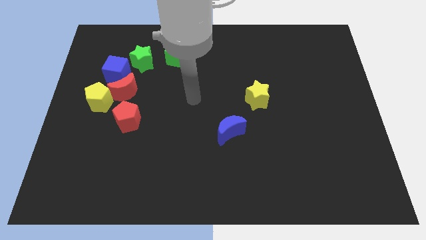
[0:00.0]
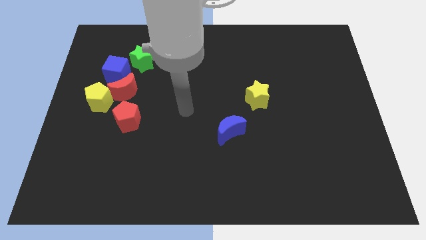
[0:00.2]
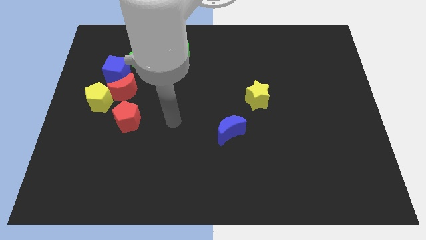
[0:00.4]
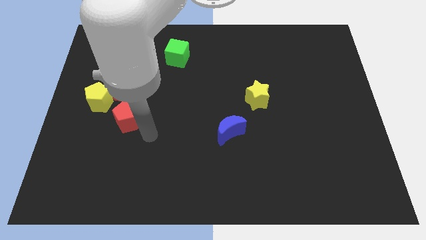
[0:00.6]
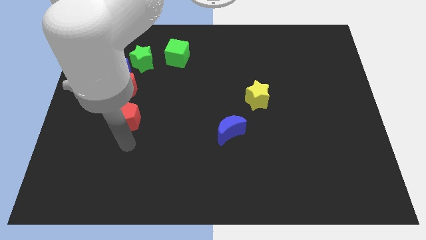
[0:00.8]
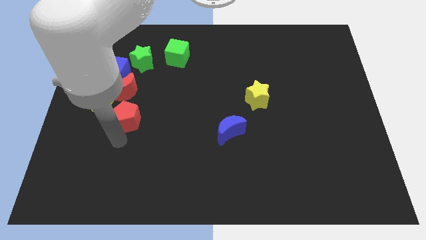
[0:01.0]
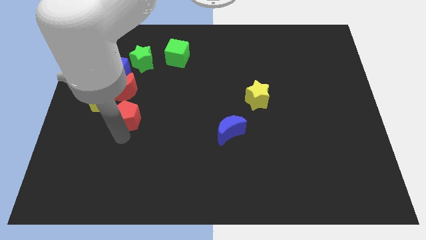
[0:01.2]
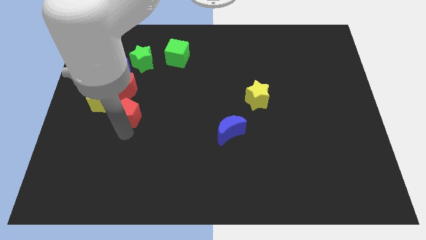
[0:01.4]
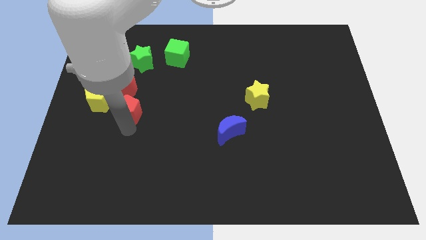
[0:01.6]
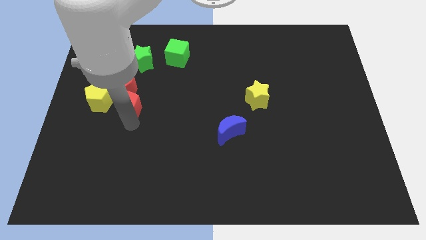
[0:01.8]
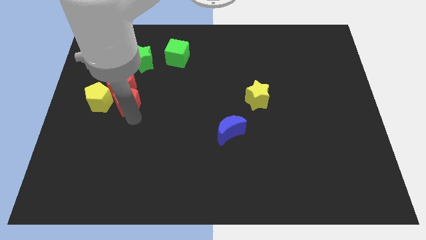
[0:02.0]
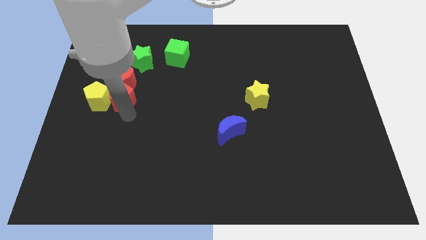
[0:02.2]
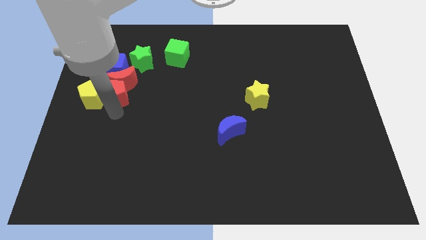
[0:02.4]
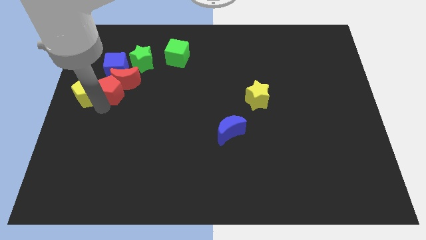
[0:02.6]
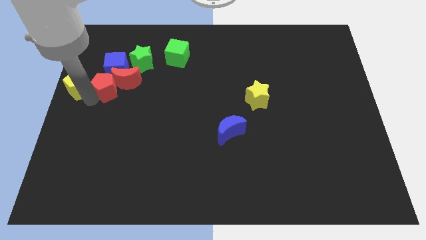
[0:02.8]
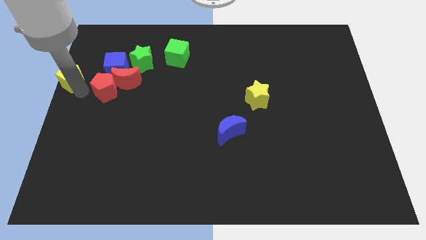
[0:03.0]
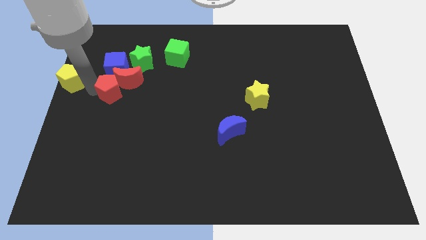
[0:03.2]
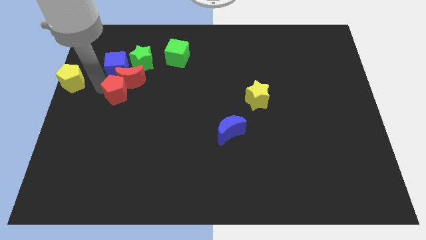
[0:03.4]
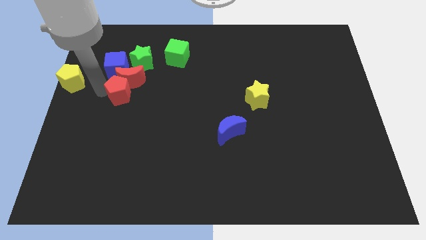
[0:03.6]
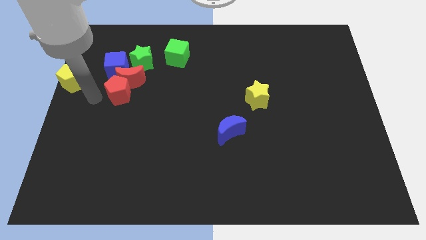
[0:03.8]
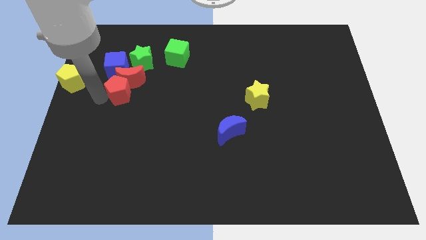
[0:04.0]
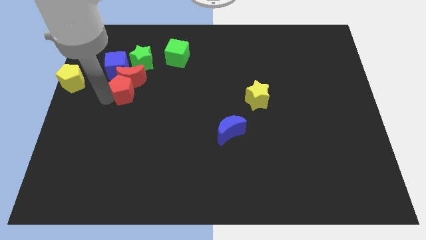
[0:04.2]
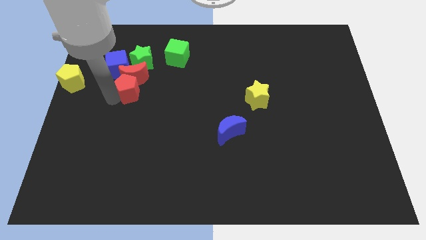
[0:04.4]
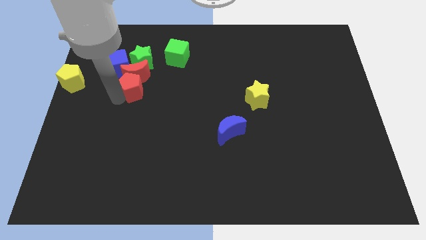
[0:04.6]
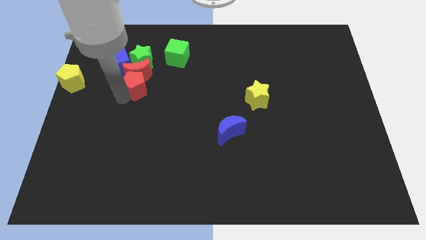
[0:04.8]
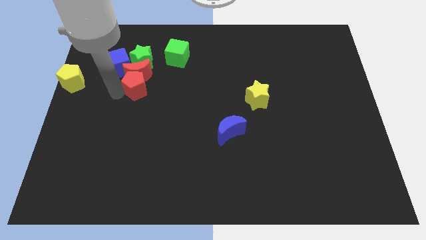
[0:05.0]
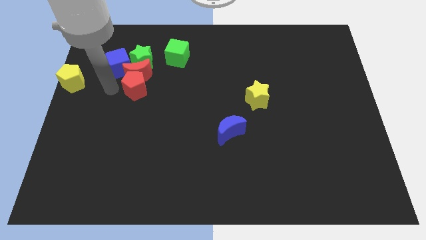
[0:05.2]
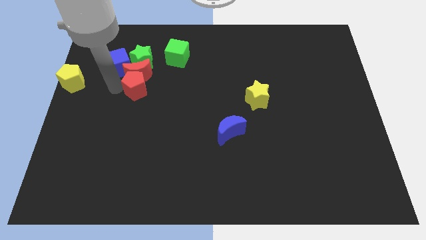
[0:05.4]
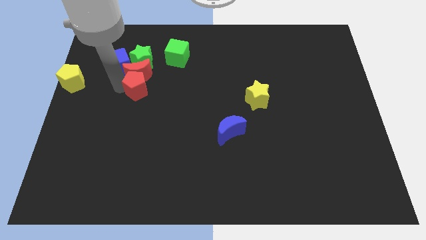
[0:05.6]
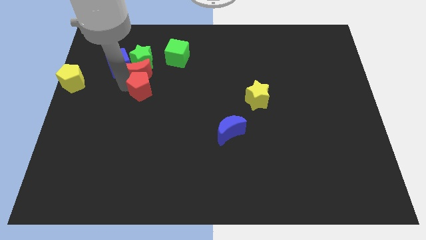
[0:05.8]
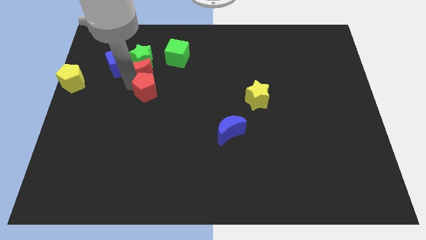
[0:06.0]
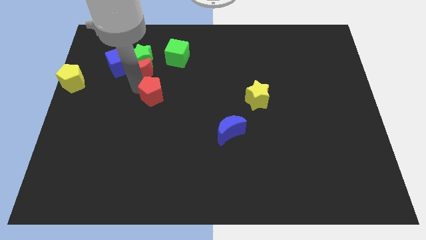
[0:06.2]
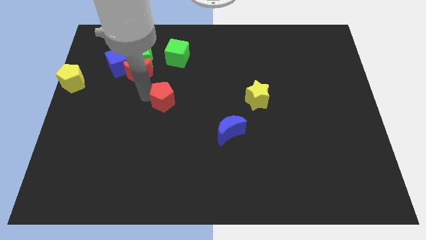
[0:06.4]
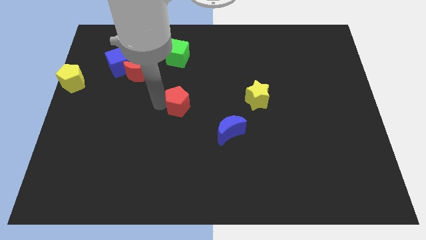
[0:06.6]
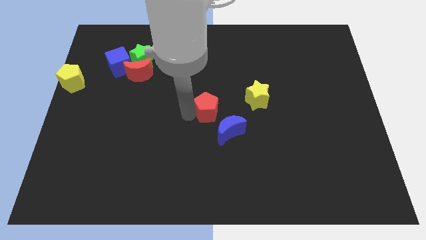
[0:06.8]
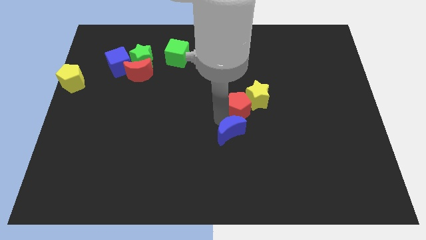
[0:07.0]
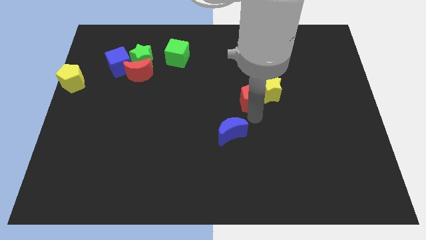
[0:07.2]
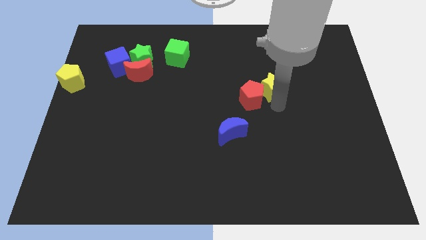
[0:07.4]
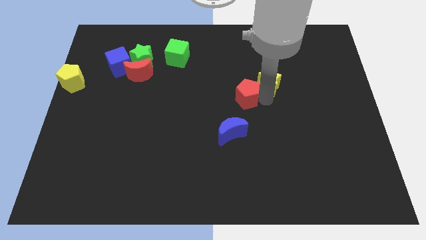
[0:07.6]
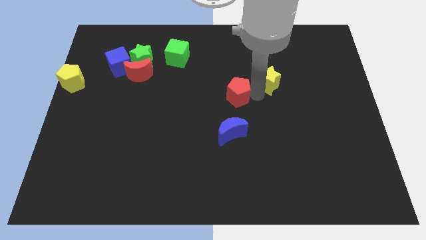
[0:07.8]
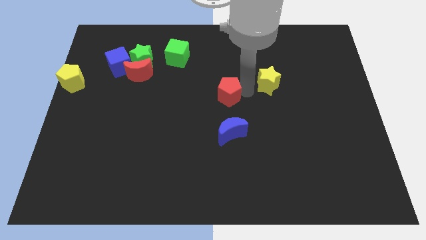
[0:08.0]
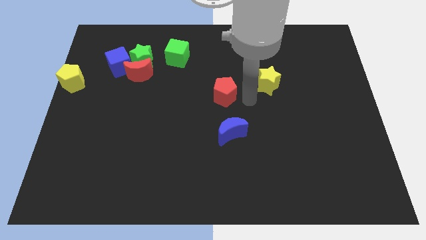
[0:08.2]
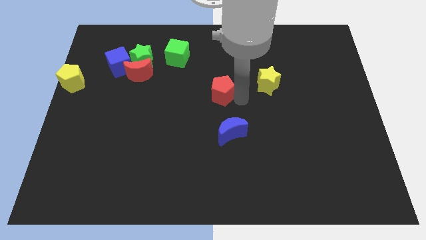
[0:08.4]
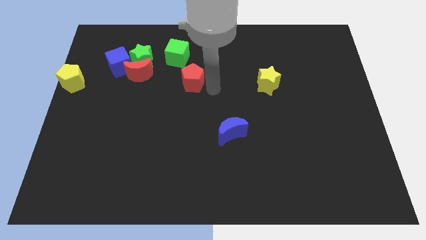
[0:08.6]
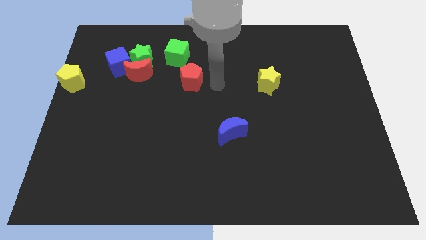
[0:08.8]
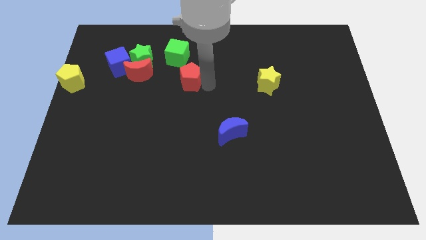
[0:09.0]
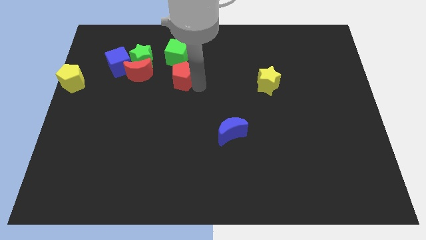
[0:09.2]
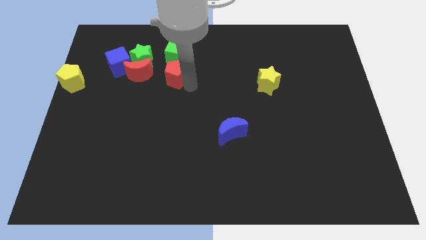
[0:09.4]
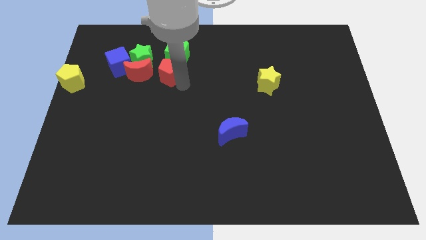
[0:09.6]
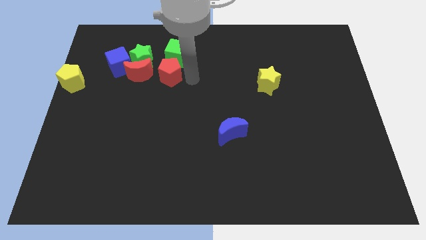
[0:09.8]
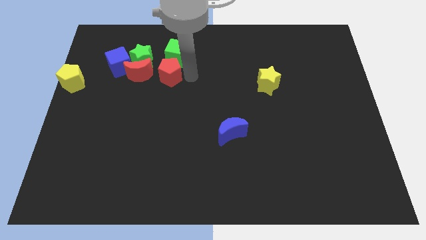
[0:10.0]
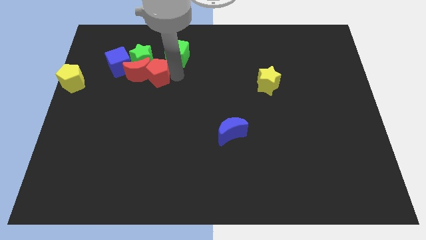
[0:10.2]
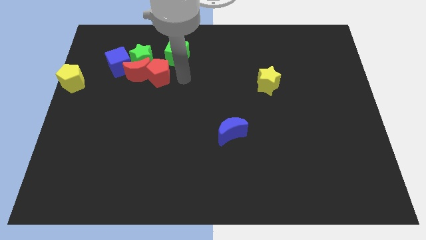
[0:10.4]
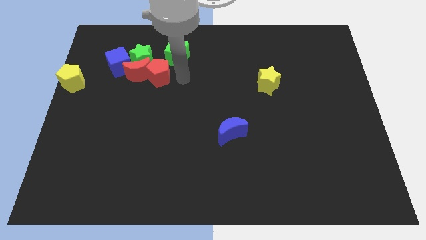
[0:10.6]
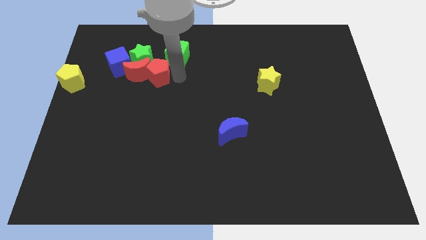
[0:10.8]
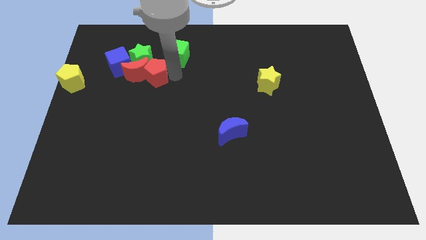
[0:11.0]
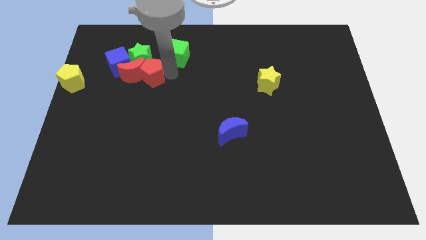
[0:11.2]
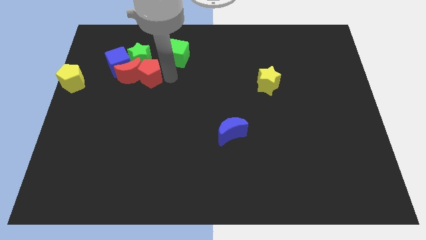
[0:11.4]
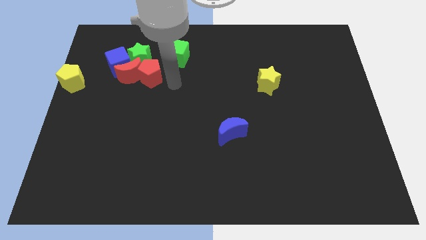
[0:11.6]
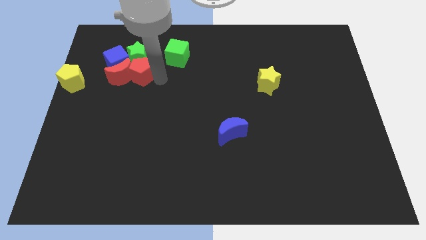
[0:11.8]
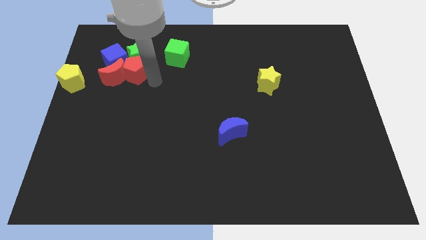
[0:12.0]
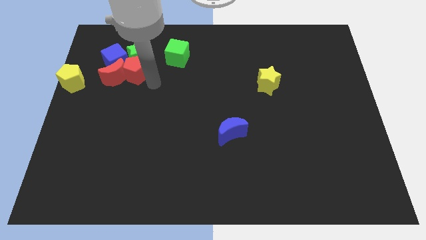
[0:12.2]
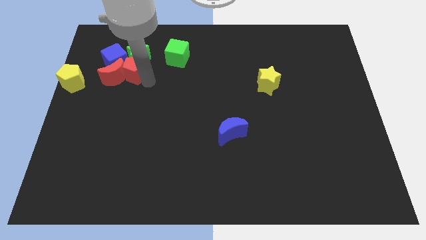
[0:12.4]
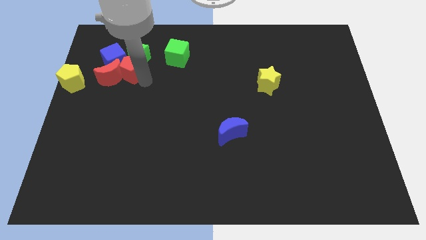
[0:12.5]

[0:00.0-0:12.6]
put the red pentagon to the blue cube

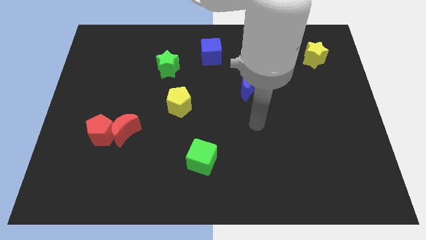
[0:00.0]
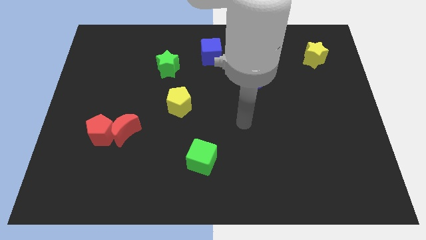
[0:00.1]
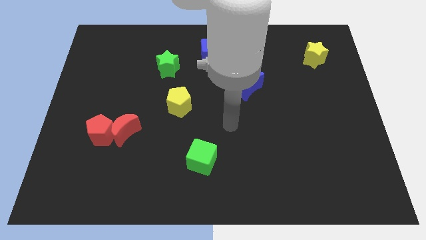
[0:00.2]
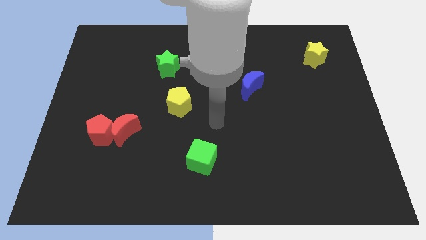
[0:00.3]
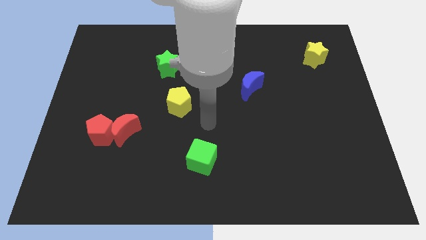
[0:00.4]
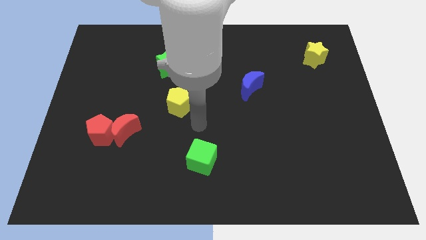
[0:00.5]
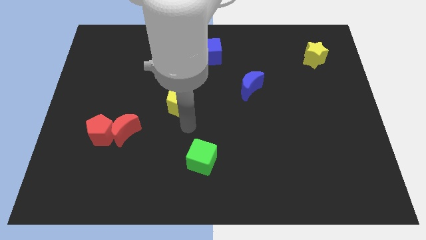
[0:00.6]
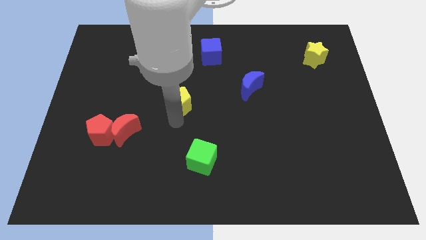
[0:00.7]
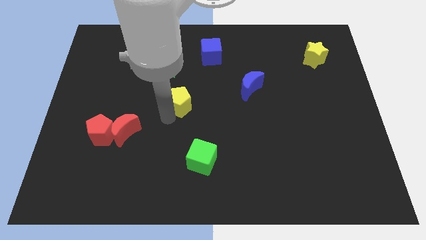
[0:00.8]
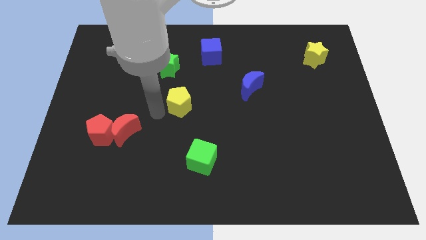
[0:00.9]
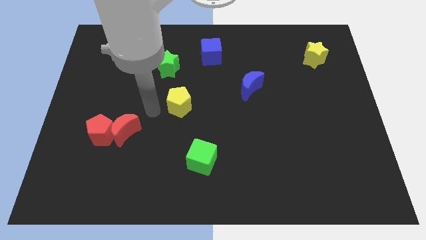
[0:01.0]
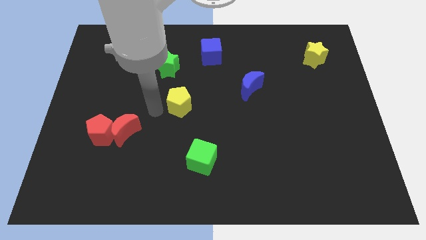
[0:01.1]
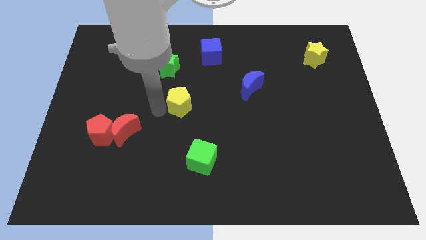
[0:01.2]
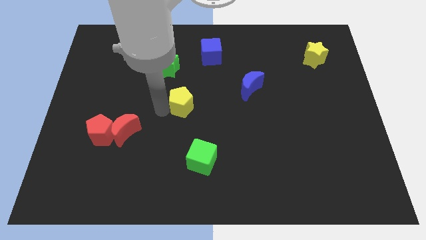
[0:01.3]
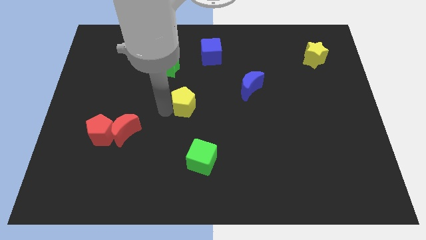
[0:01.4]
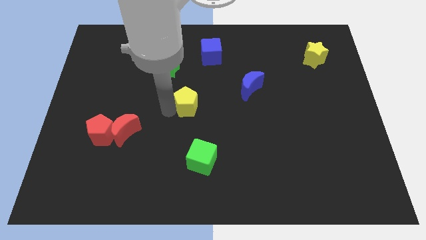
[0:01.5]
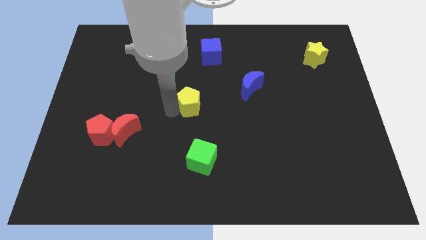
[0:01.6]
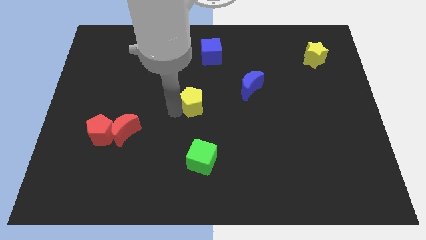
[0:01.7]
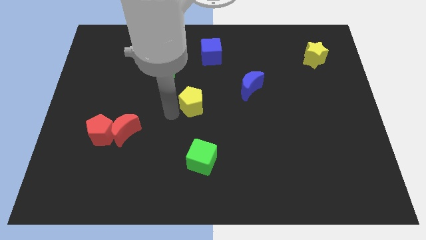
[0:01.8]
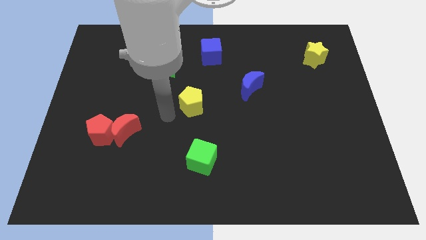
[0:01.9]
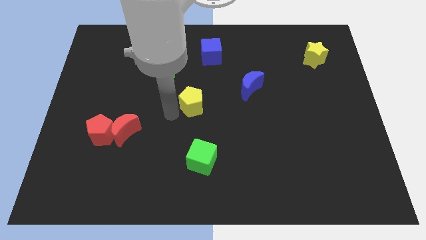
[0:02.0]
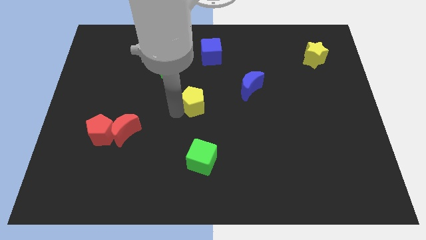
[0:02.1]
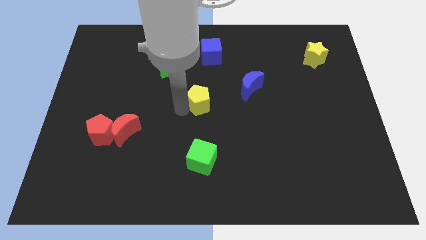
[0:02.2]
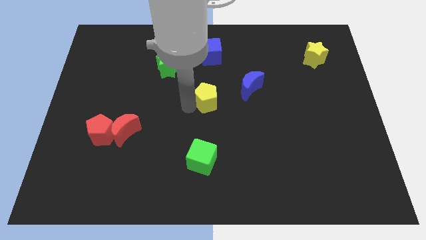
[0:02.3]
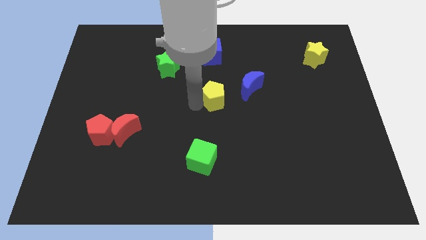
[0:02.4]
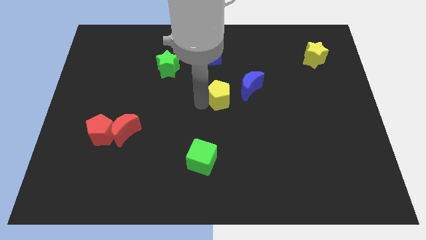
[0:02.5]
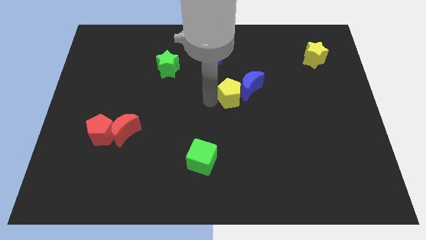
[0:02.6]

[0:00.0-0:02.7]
put the yellow pentagon close to the blue moon
